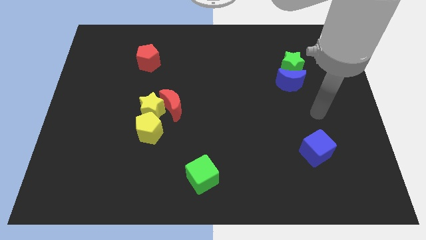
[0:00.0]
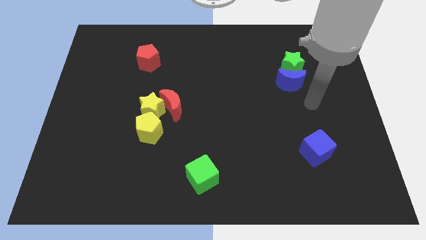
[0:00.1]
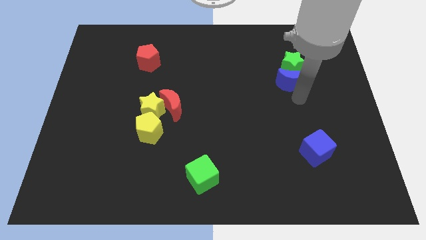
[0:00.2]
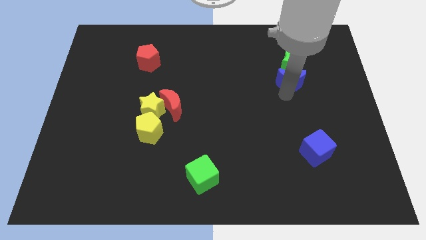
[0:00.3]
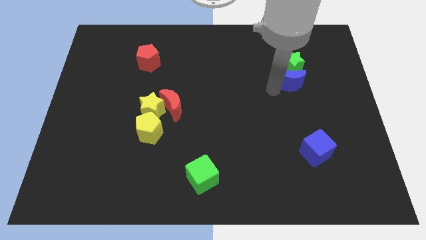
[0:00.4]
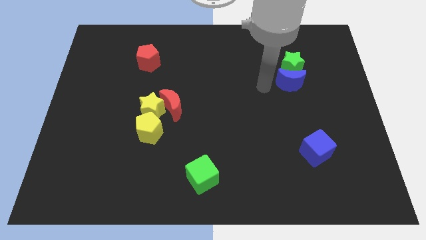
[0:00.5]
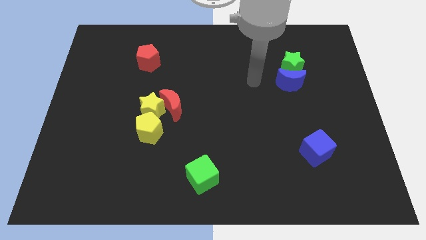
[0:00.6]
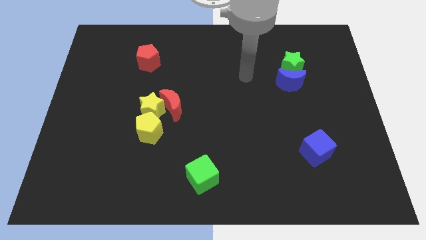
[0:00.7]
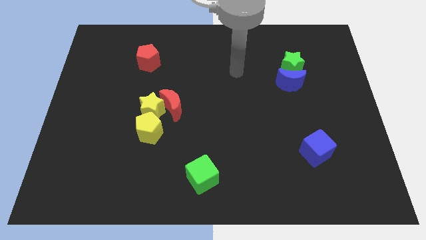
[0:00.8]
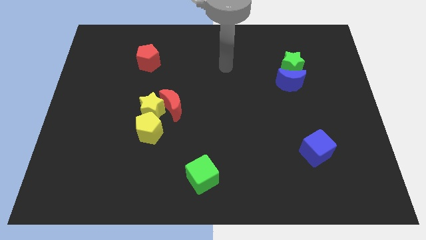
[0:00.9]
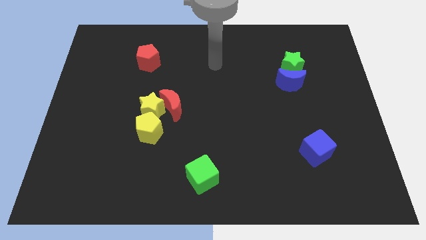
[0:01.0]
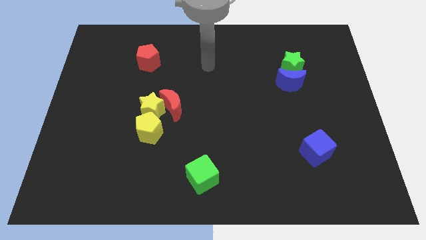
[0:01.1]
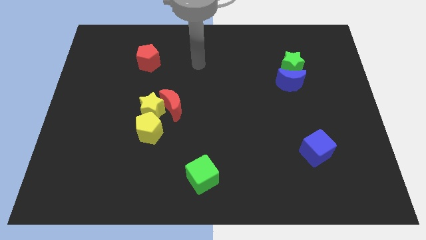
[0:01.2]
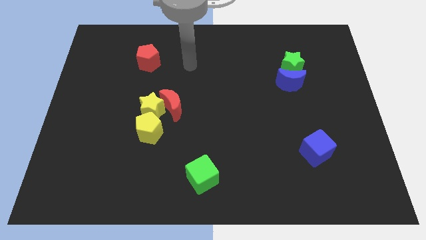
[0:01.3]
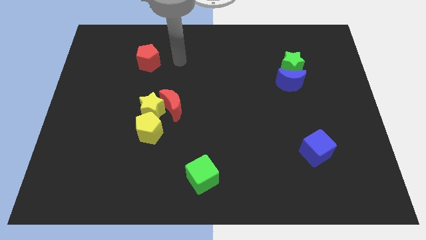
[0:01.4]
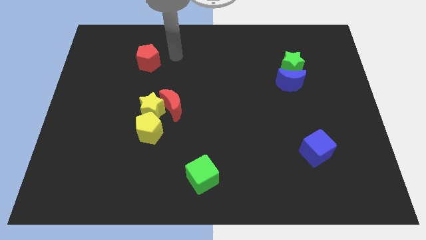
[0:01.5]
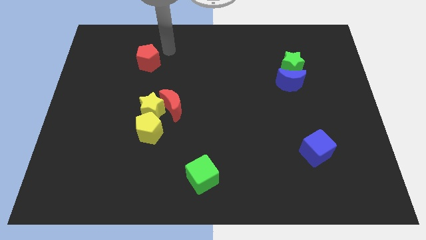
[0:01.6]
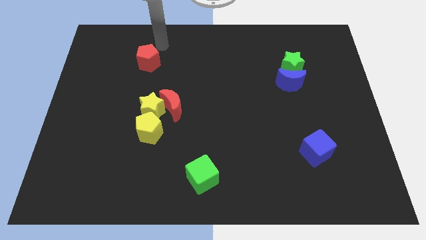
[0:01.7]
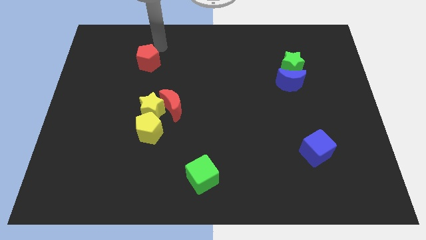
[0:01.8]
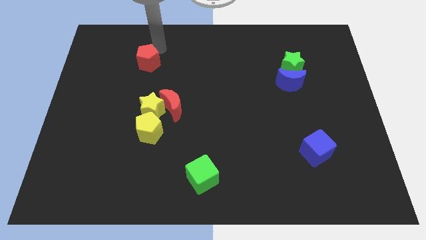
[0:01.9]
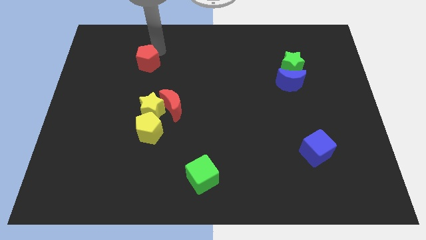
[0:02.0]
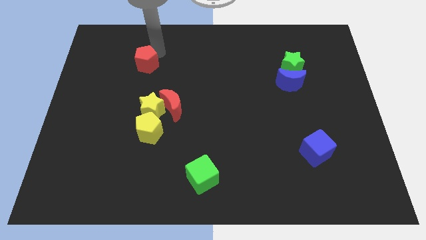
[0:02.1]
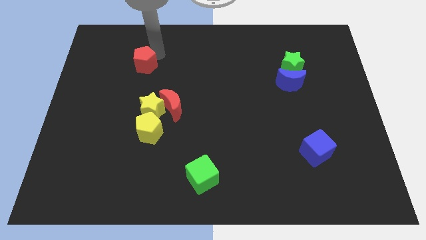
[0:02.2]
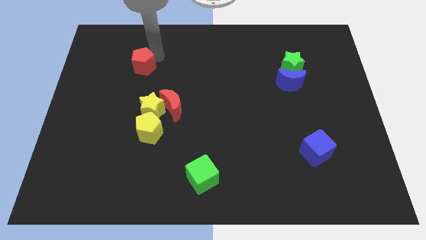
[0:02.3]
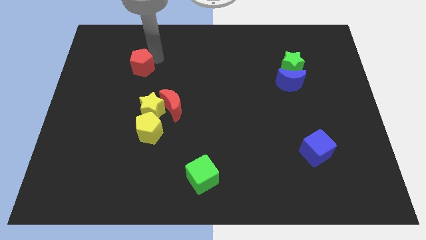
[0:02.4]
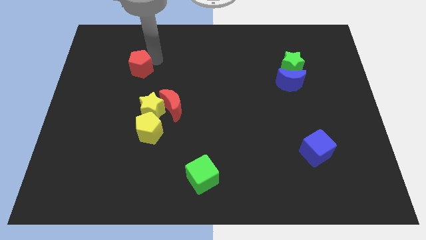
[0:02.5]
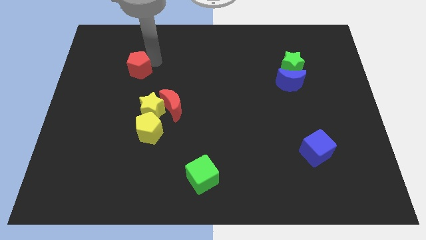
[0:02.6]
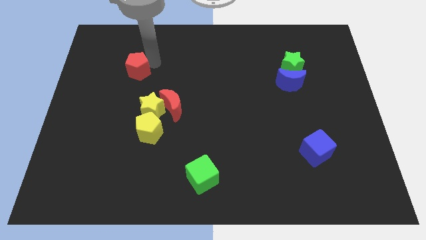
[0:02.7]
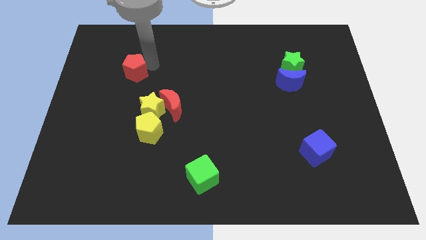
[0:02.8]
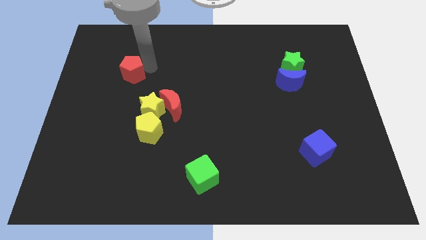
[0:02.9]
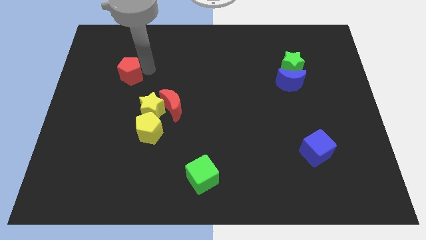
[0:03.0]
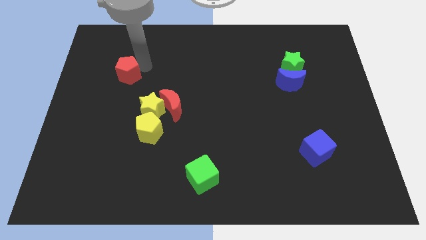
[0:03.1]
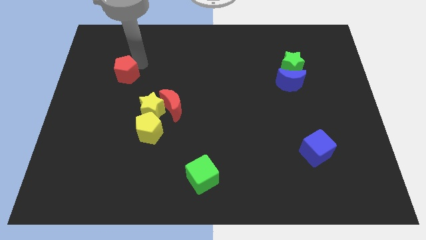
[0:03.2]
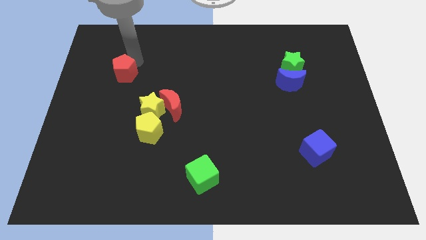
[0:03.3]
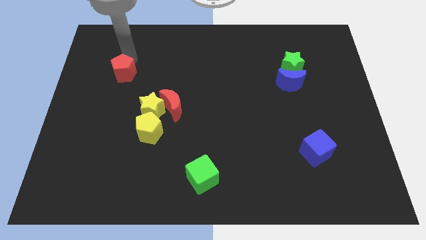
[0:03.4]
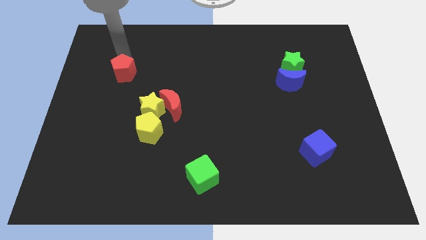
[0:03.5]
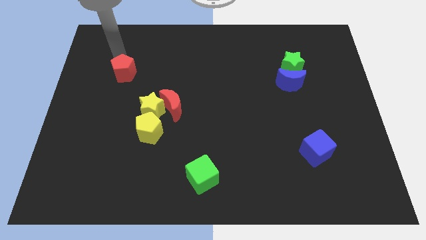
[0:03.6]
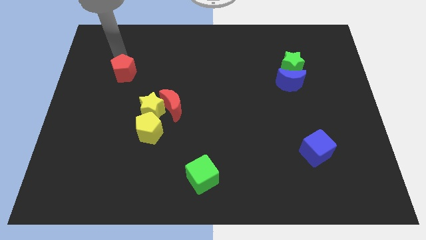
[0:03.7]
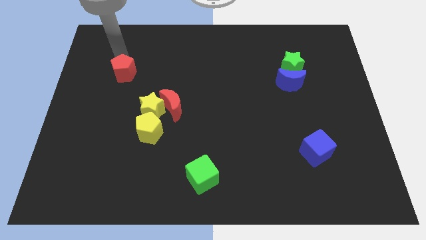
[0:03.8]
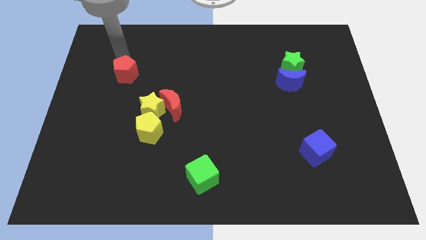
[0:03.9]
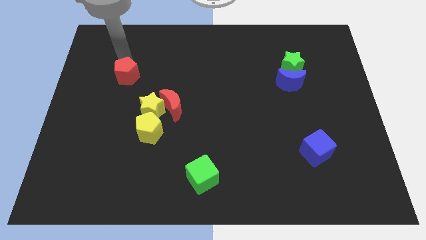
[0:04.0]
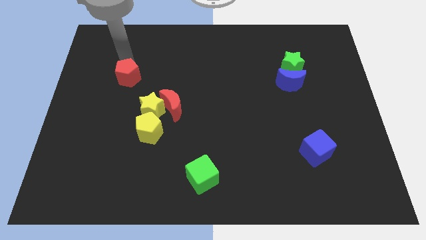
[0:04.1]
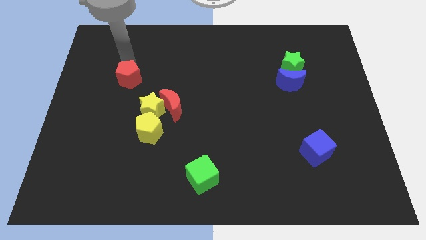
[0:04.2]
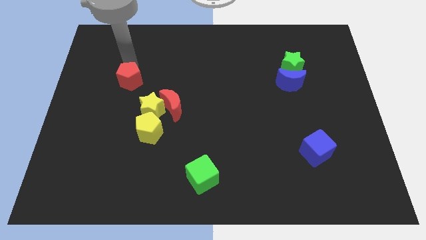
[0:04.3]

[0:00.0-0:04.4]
move the red pentagon to the top left side of the yellow star

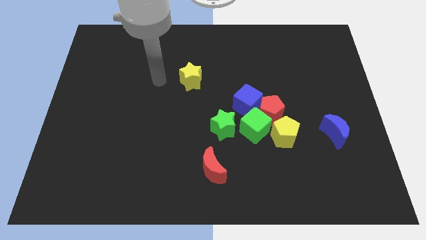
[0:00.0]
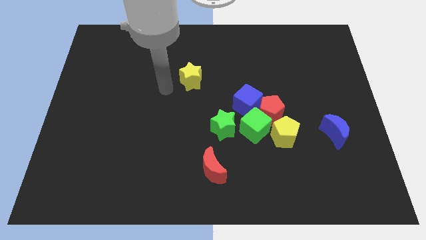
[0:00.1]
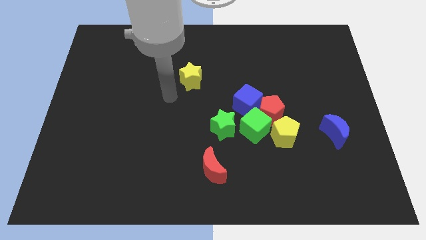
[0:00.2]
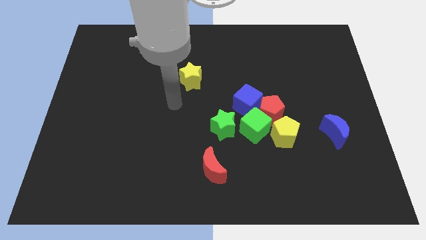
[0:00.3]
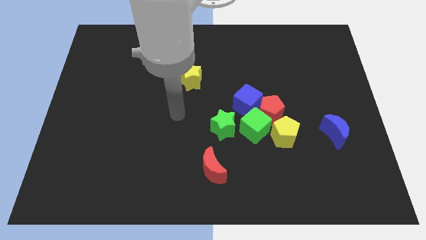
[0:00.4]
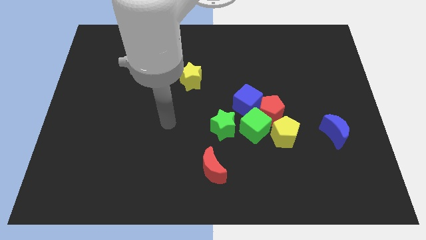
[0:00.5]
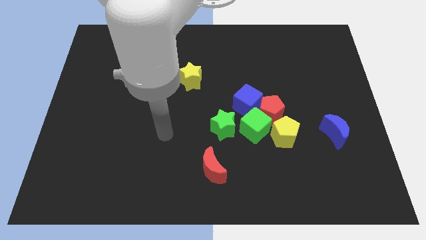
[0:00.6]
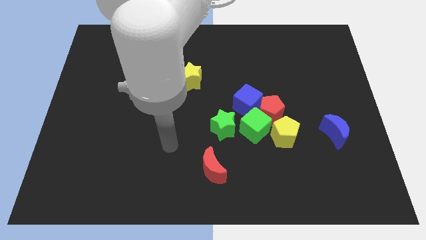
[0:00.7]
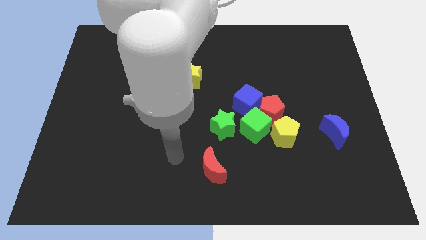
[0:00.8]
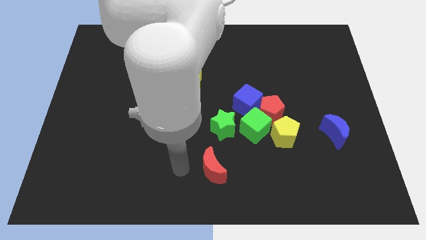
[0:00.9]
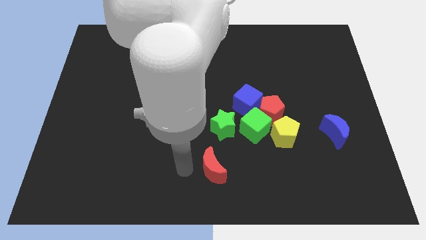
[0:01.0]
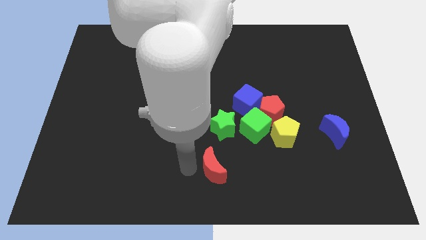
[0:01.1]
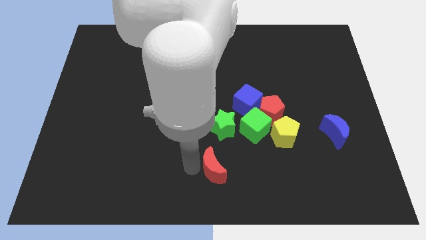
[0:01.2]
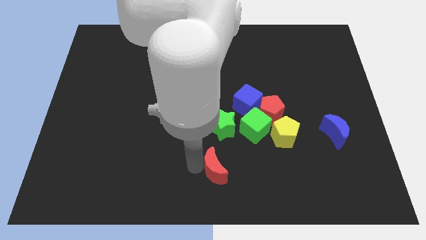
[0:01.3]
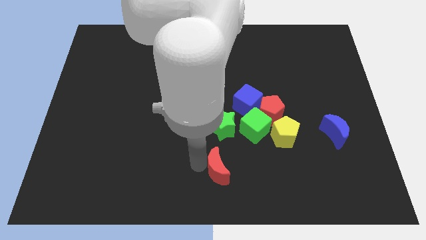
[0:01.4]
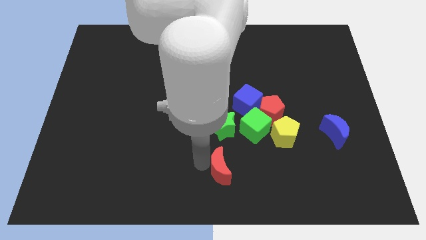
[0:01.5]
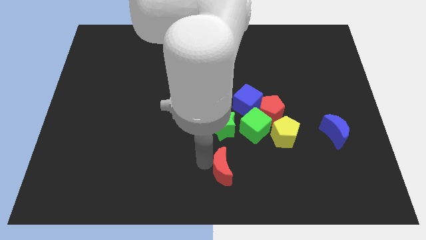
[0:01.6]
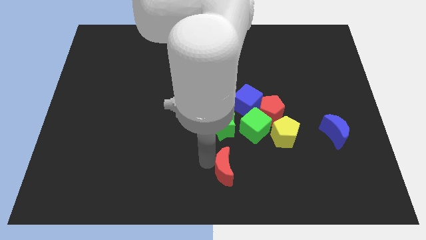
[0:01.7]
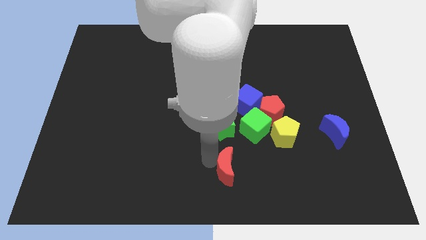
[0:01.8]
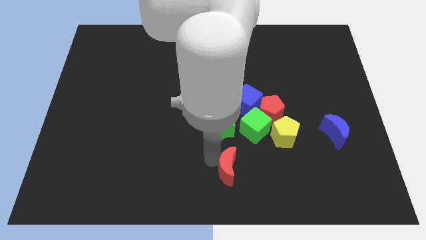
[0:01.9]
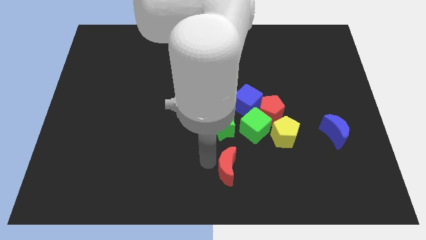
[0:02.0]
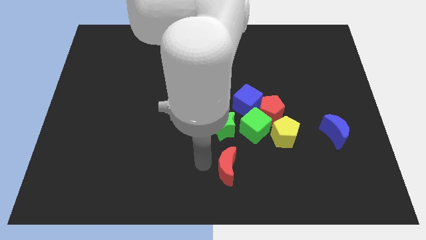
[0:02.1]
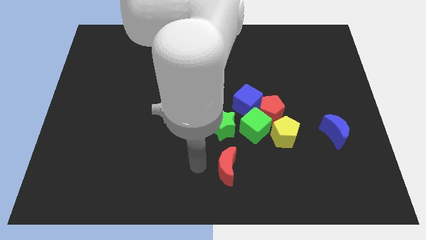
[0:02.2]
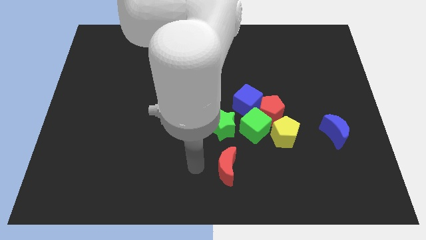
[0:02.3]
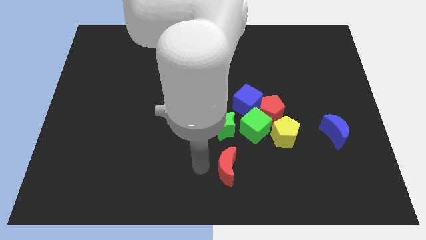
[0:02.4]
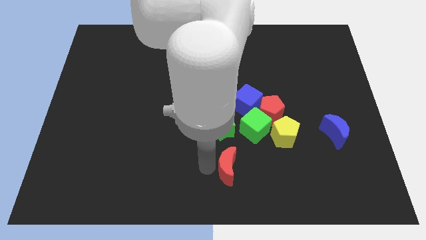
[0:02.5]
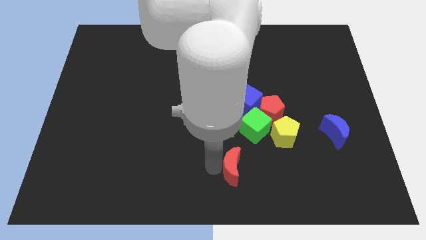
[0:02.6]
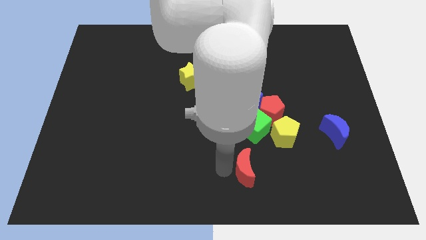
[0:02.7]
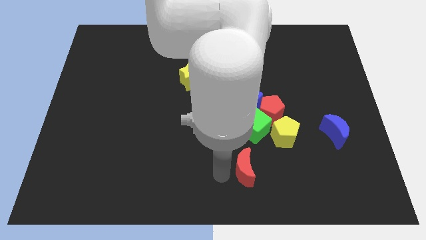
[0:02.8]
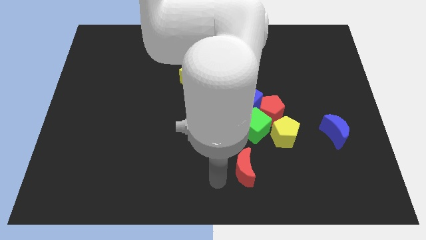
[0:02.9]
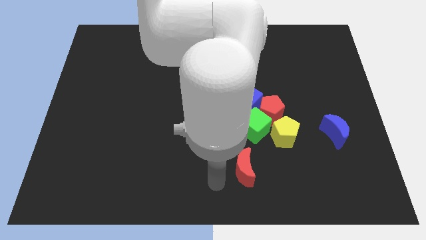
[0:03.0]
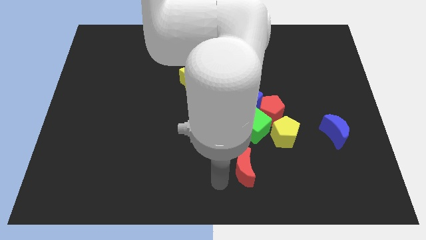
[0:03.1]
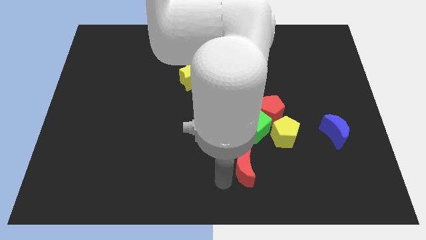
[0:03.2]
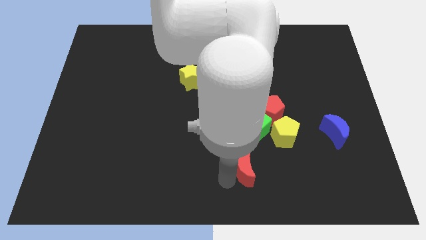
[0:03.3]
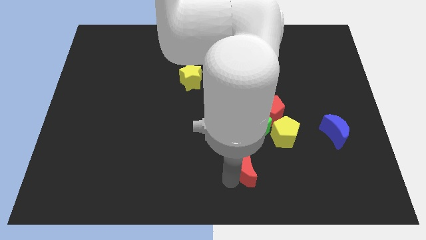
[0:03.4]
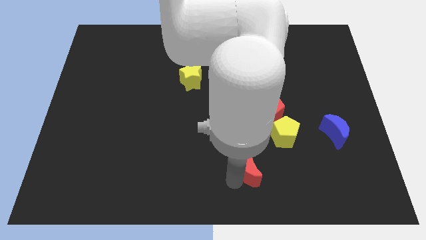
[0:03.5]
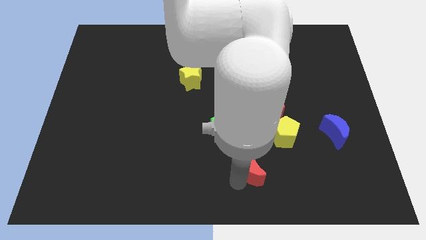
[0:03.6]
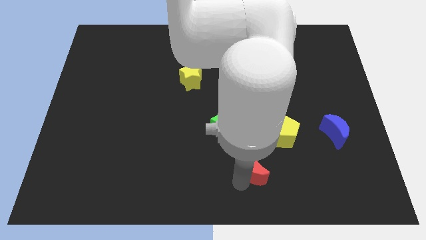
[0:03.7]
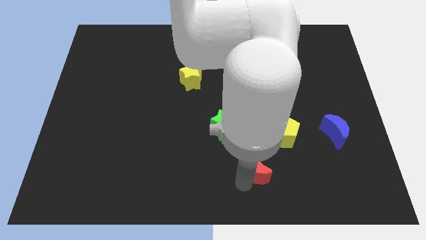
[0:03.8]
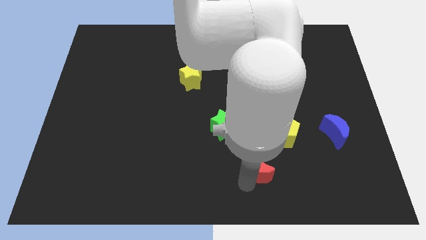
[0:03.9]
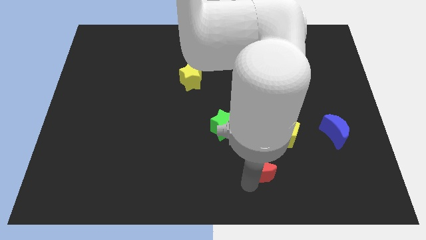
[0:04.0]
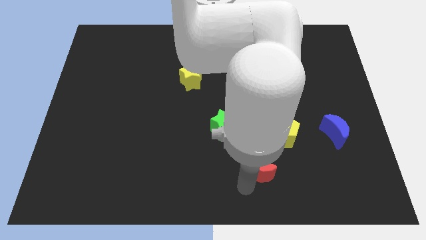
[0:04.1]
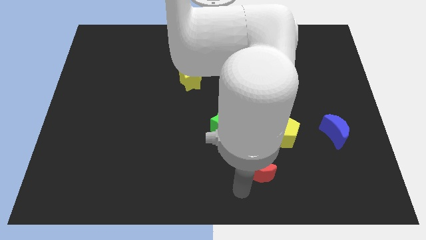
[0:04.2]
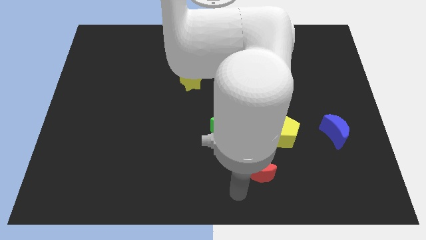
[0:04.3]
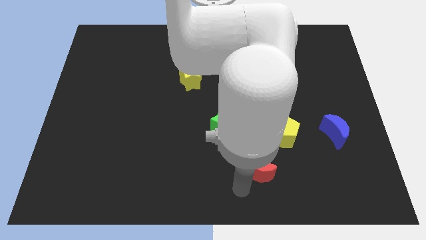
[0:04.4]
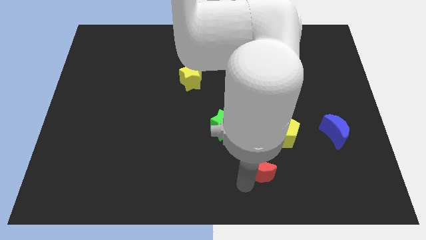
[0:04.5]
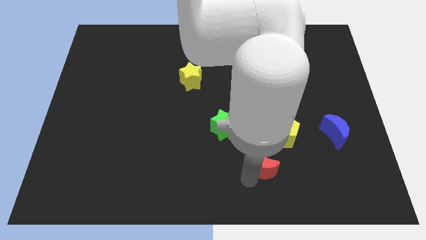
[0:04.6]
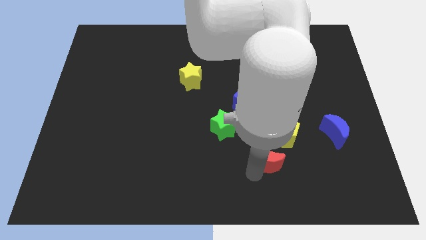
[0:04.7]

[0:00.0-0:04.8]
slide the red moon diagonally down and to the right of the green cube
